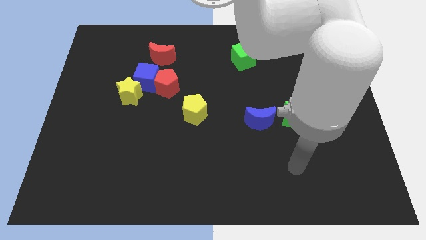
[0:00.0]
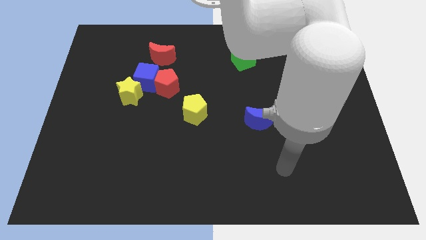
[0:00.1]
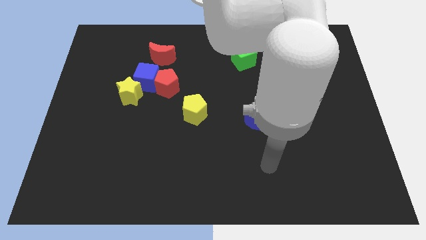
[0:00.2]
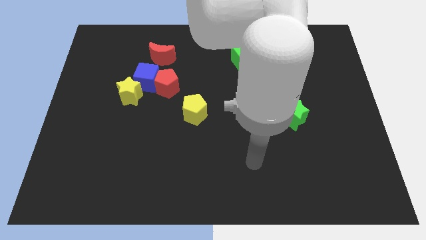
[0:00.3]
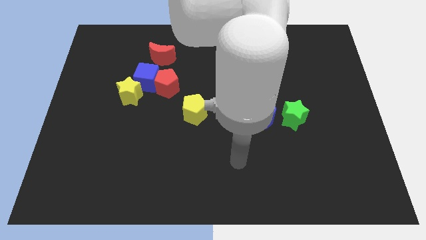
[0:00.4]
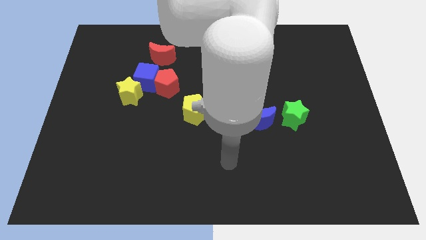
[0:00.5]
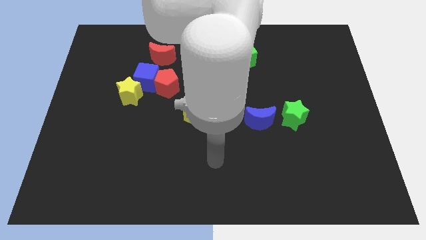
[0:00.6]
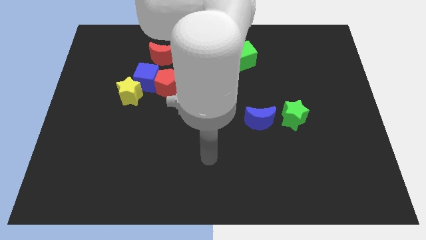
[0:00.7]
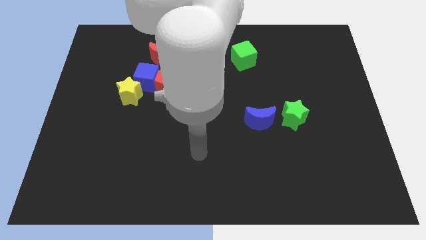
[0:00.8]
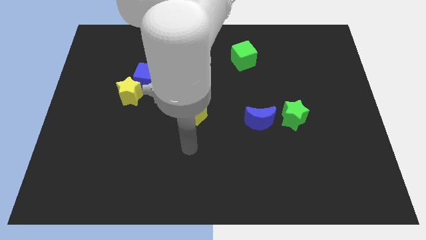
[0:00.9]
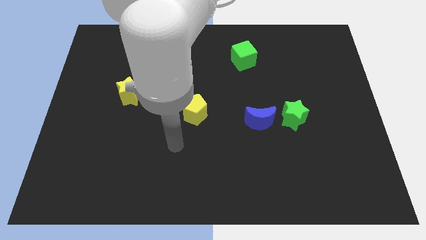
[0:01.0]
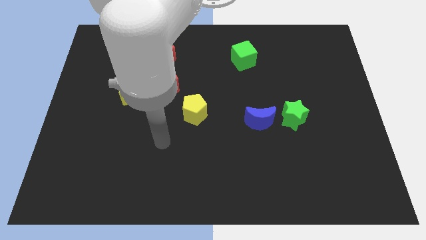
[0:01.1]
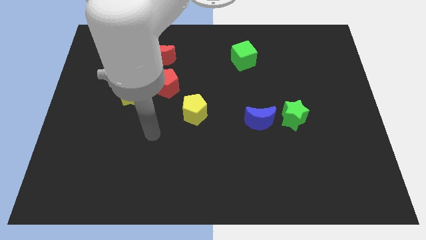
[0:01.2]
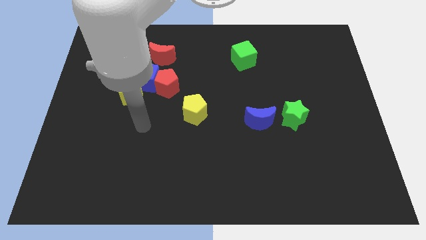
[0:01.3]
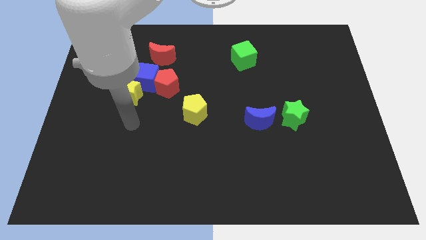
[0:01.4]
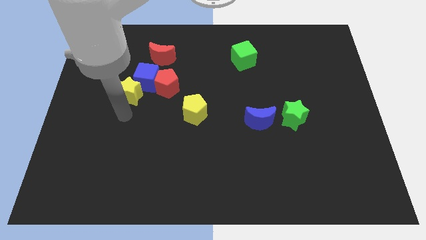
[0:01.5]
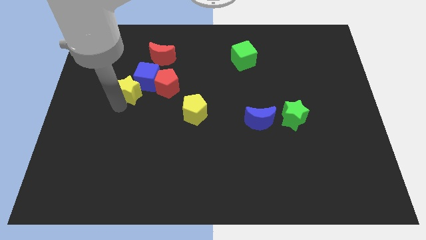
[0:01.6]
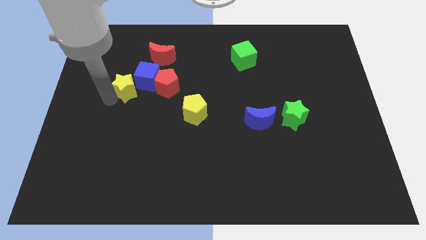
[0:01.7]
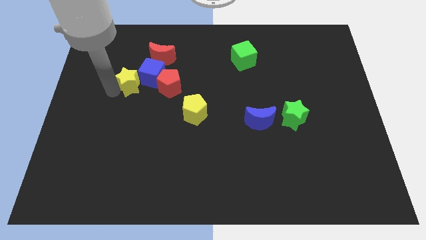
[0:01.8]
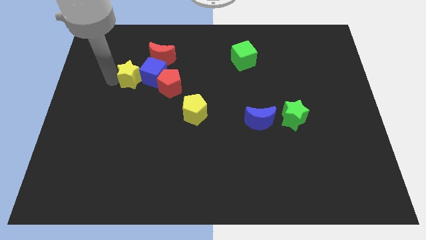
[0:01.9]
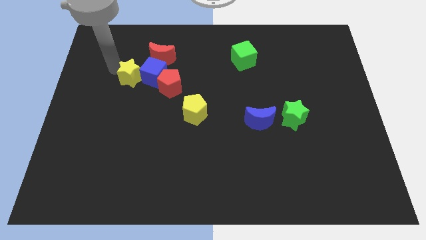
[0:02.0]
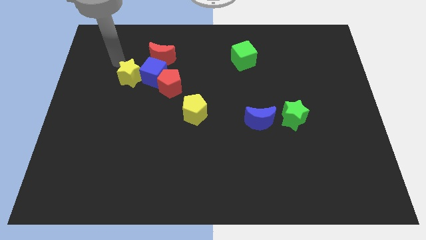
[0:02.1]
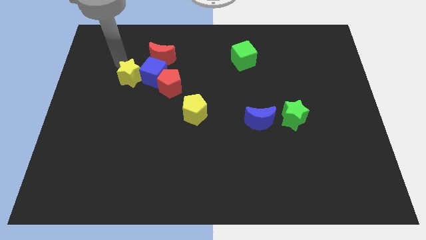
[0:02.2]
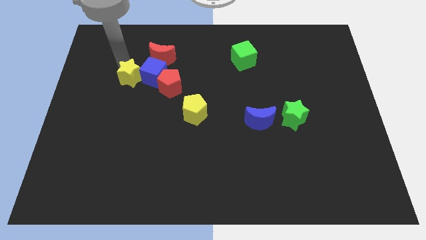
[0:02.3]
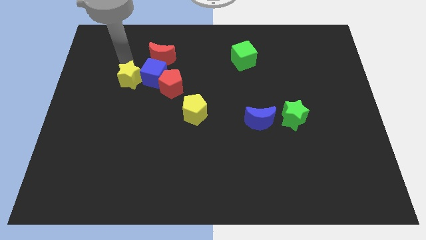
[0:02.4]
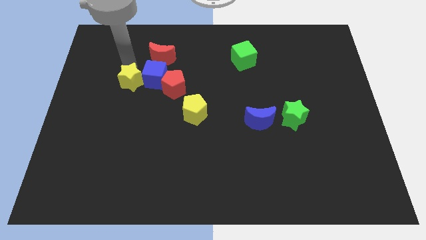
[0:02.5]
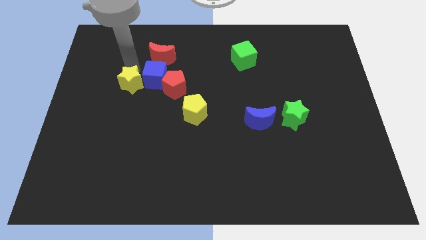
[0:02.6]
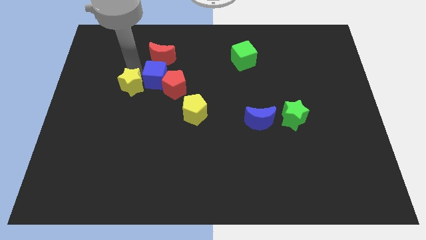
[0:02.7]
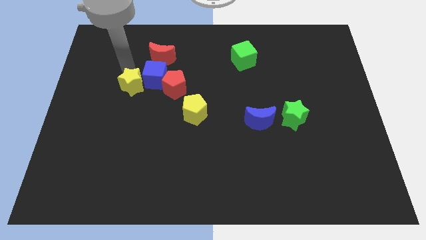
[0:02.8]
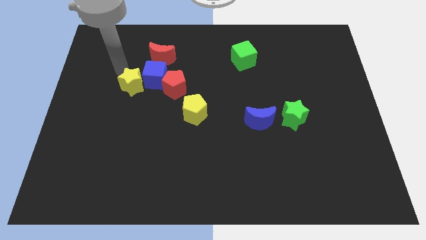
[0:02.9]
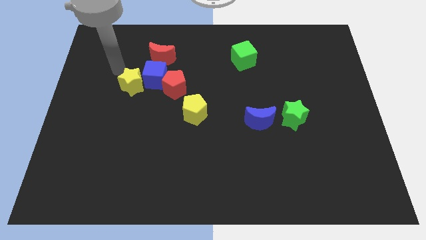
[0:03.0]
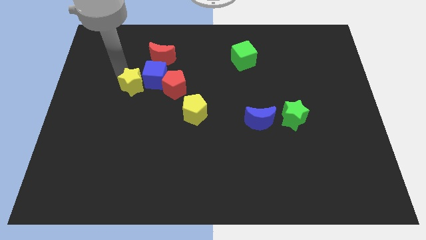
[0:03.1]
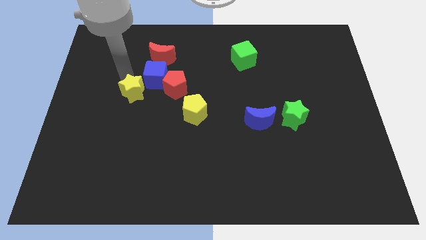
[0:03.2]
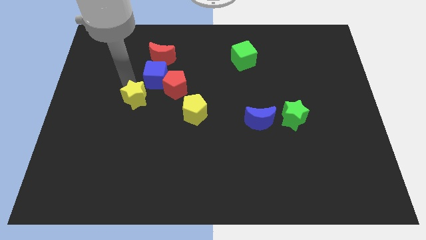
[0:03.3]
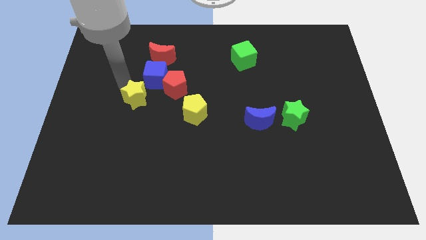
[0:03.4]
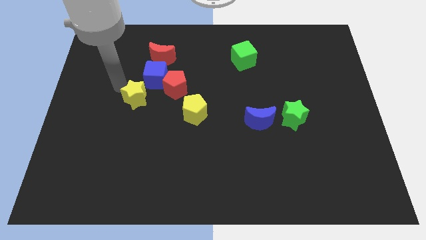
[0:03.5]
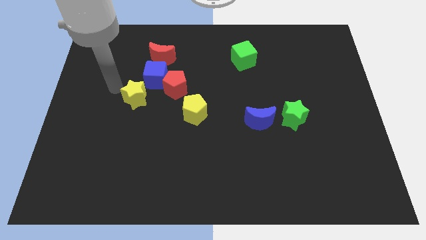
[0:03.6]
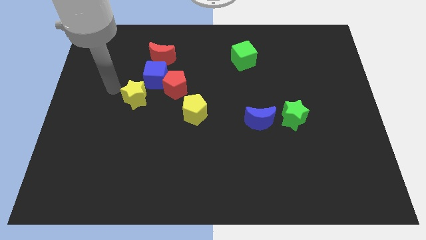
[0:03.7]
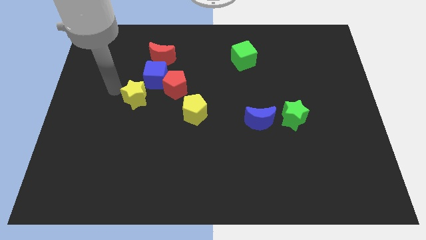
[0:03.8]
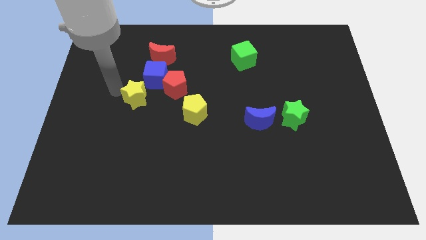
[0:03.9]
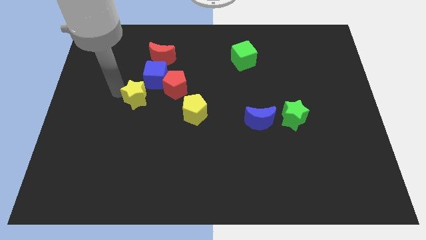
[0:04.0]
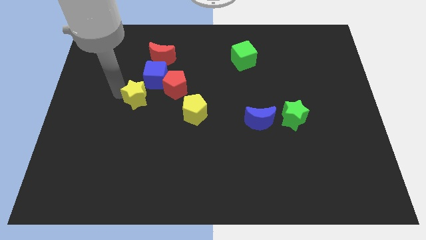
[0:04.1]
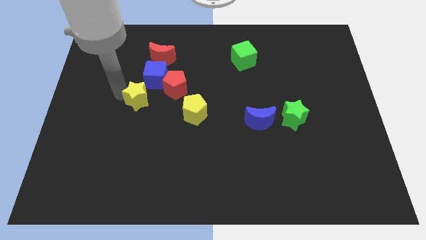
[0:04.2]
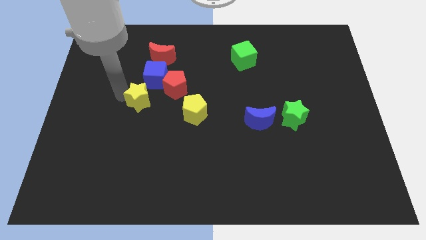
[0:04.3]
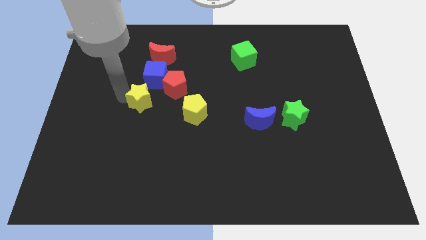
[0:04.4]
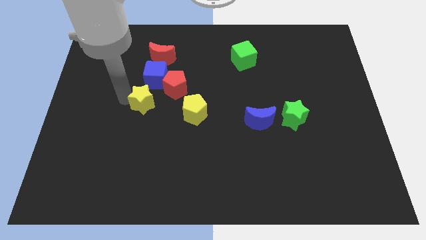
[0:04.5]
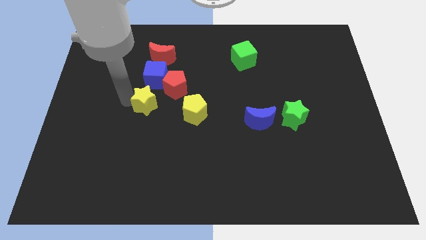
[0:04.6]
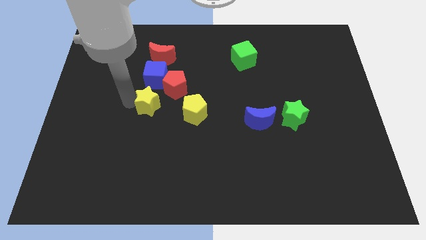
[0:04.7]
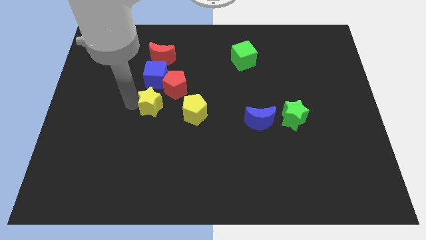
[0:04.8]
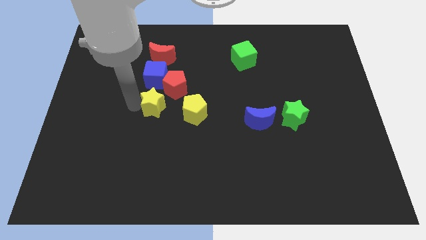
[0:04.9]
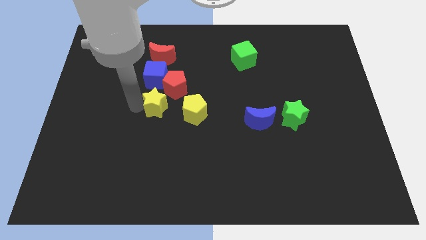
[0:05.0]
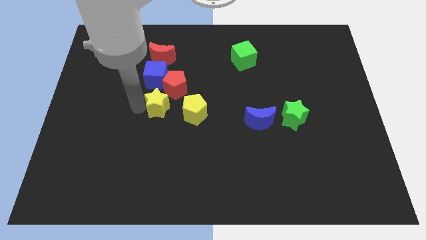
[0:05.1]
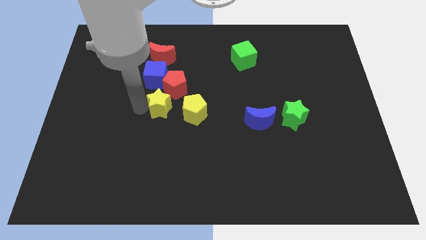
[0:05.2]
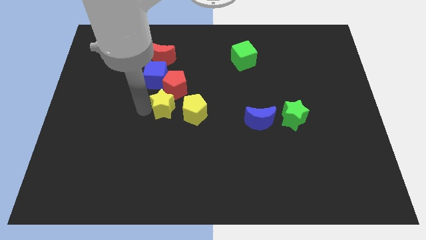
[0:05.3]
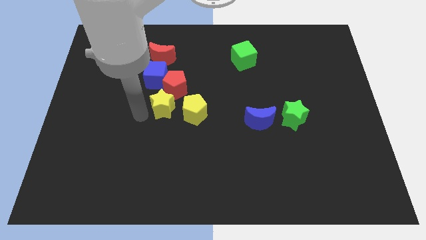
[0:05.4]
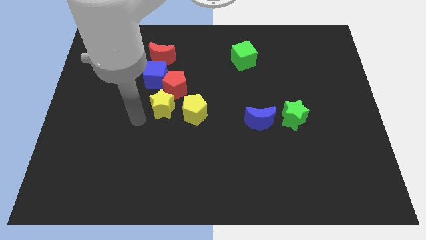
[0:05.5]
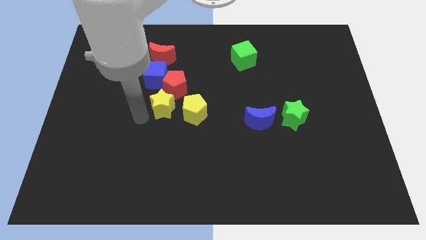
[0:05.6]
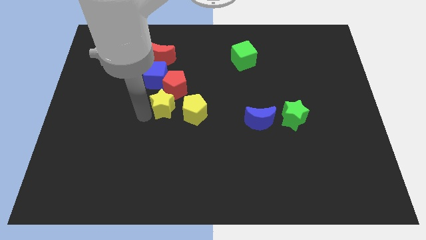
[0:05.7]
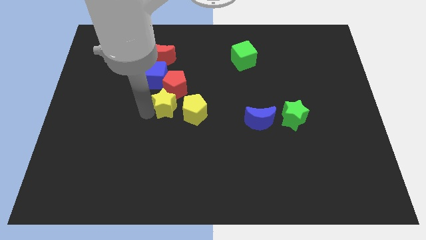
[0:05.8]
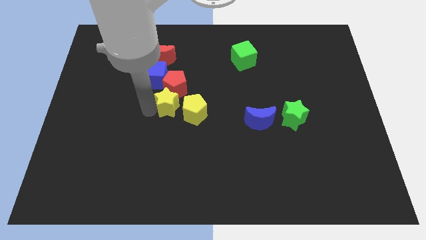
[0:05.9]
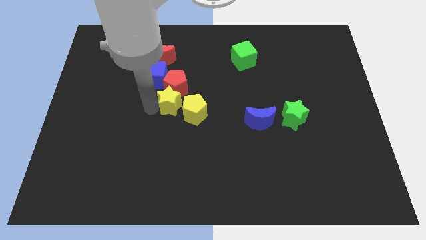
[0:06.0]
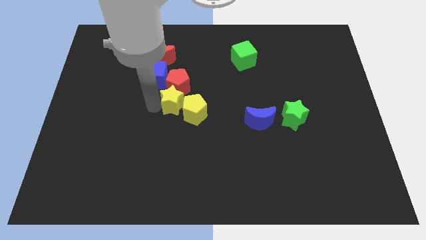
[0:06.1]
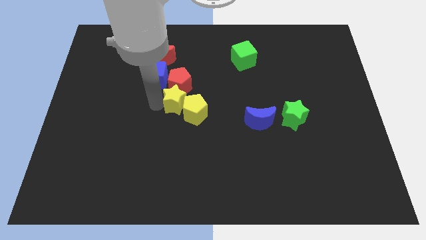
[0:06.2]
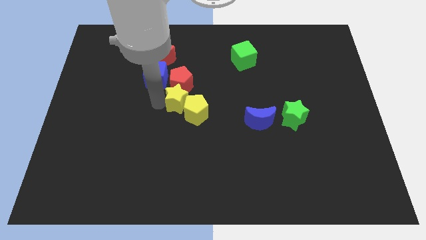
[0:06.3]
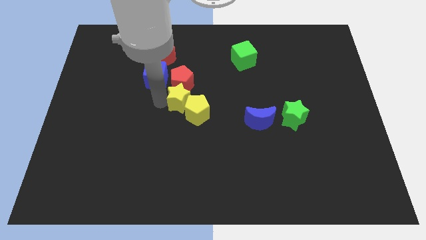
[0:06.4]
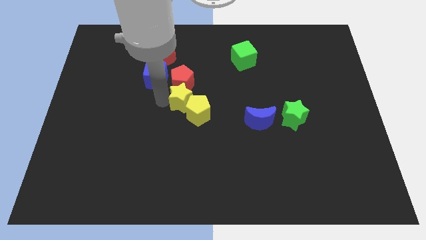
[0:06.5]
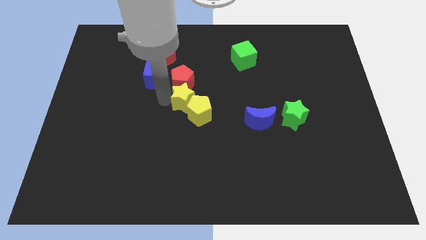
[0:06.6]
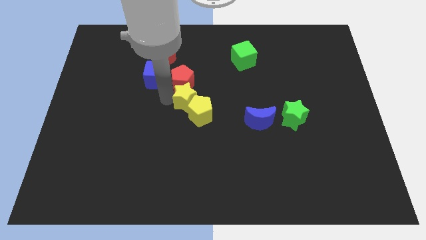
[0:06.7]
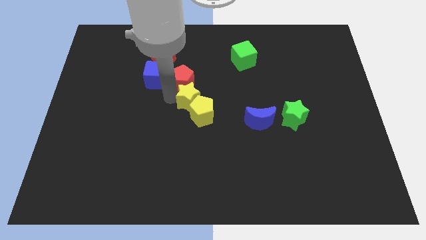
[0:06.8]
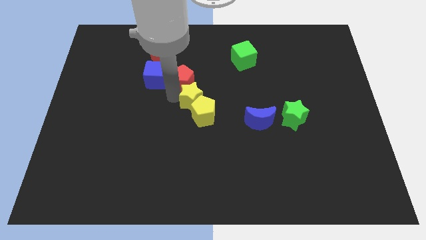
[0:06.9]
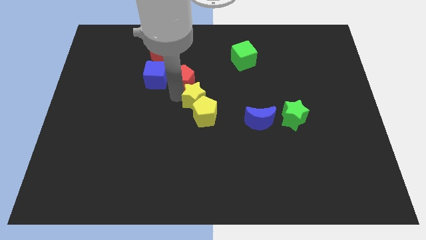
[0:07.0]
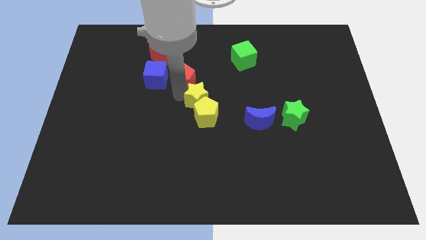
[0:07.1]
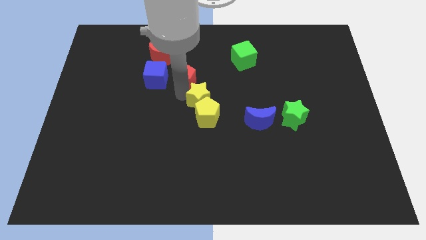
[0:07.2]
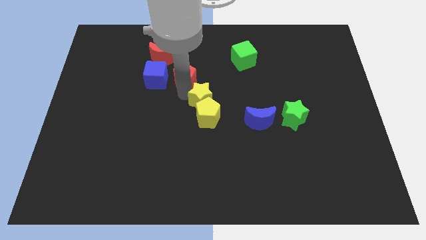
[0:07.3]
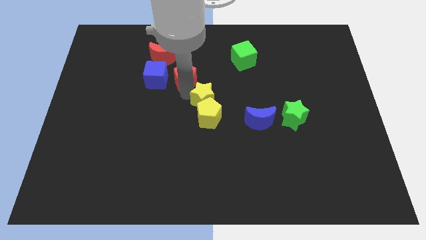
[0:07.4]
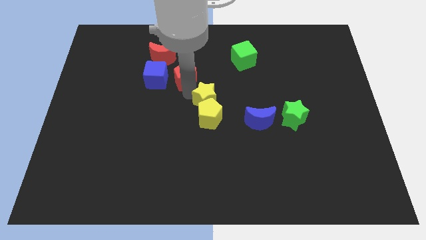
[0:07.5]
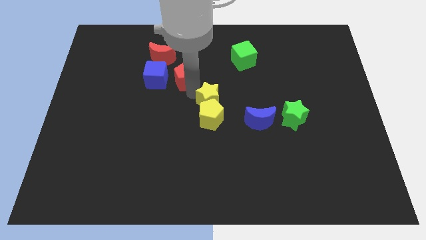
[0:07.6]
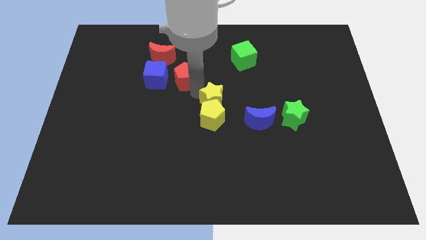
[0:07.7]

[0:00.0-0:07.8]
push the yellow star to the right
